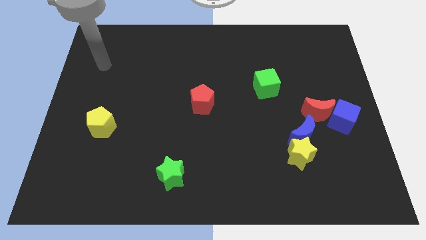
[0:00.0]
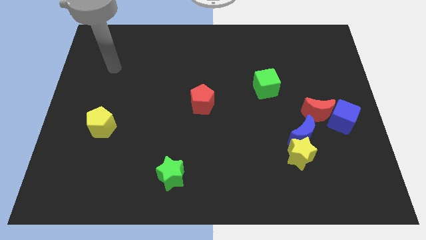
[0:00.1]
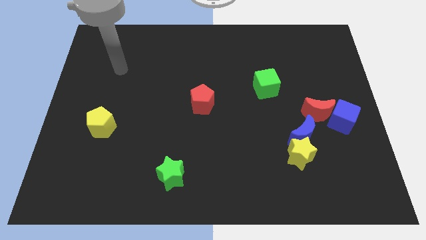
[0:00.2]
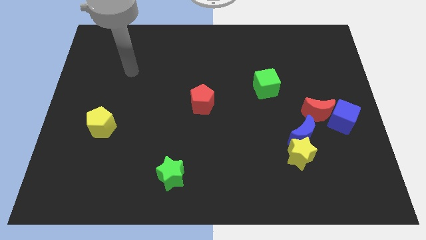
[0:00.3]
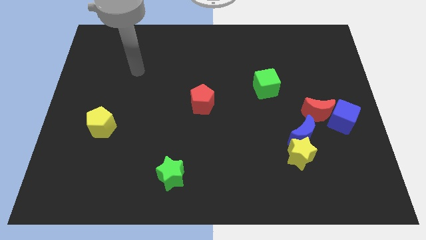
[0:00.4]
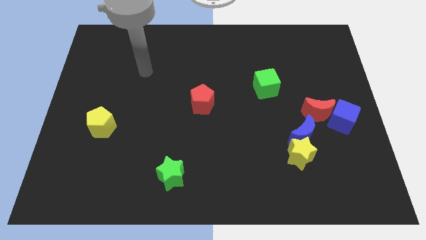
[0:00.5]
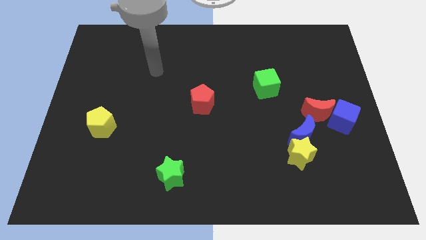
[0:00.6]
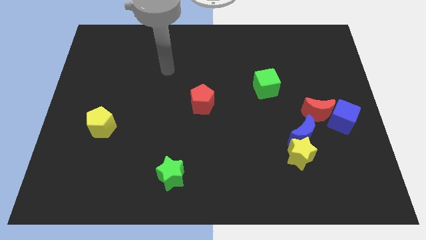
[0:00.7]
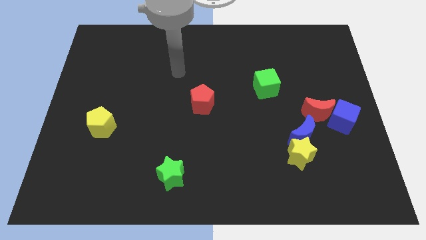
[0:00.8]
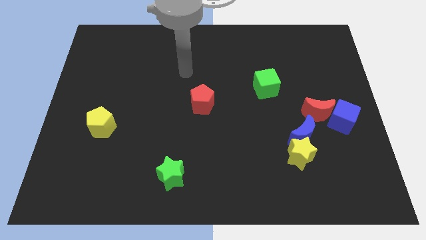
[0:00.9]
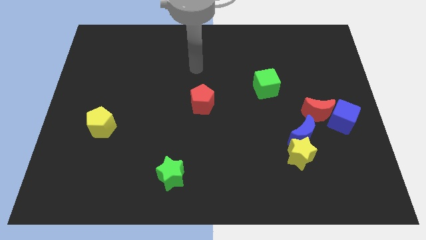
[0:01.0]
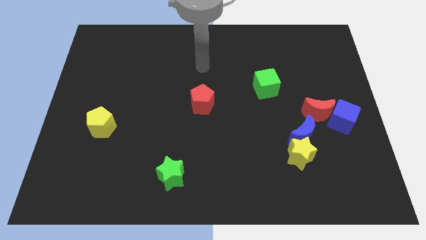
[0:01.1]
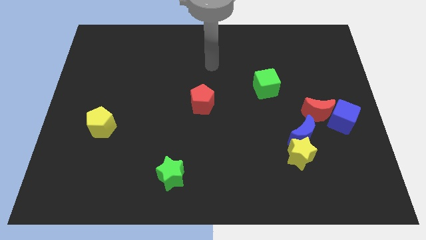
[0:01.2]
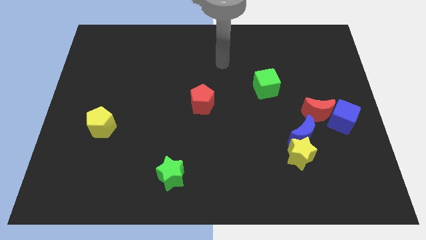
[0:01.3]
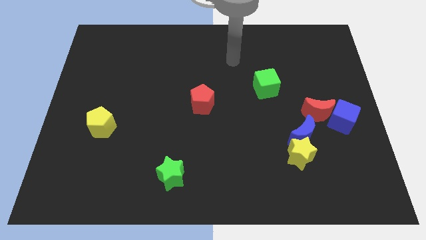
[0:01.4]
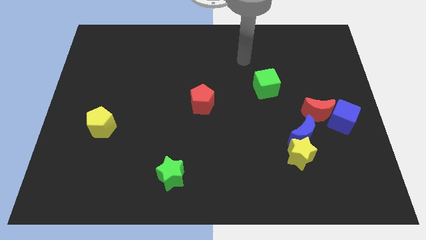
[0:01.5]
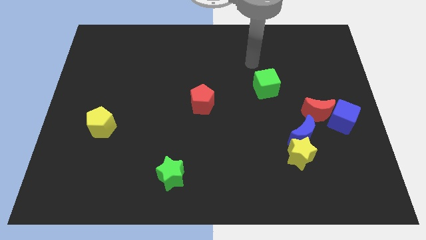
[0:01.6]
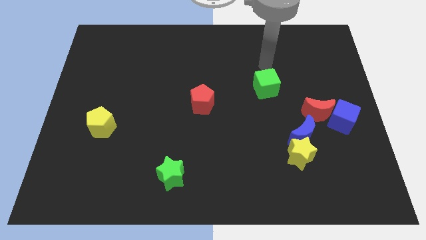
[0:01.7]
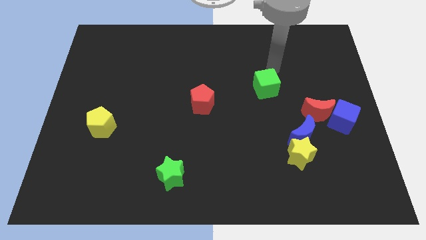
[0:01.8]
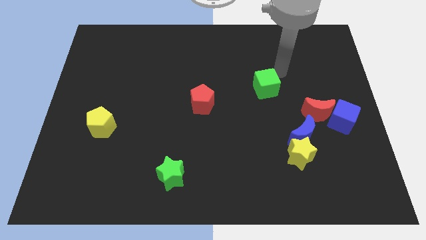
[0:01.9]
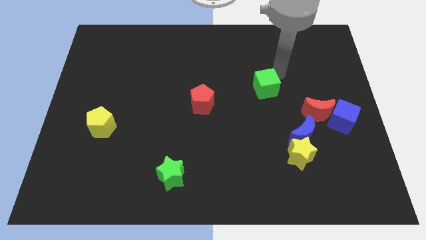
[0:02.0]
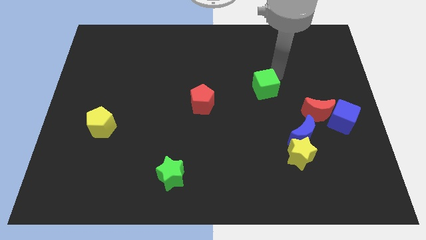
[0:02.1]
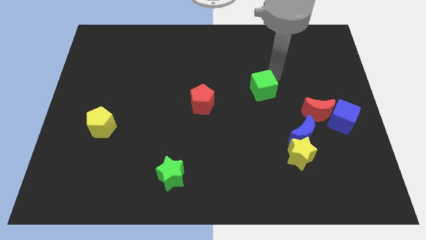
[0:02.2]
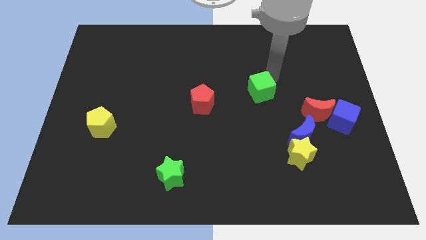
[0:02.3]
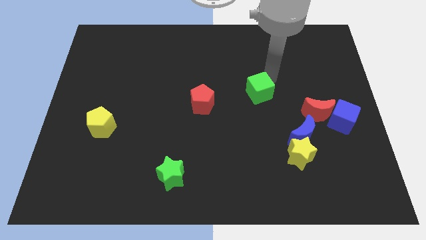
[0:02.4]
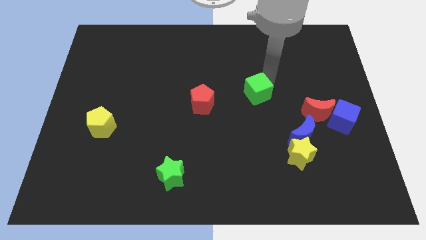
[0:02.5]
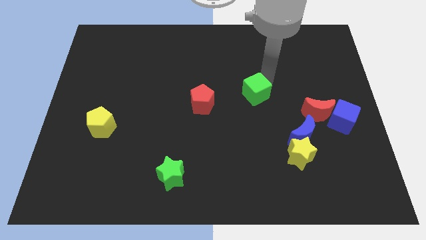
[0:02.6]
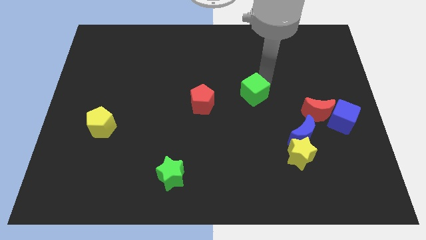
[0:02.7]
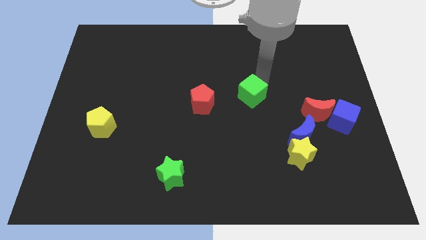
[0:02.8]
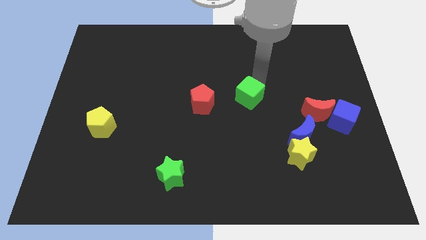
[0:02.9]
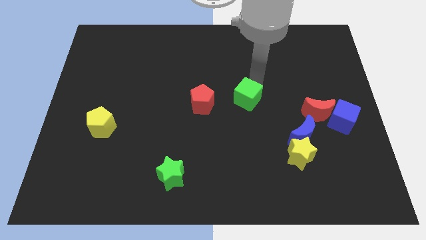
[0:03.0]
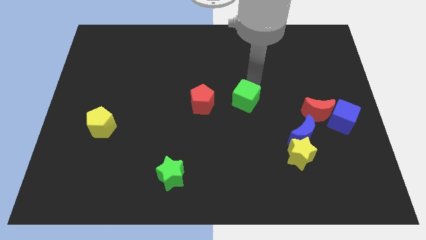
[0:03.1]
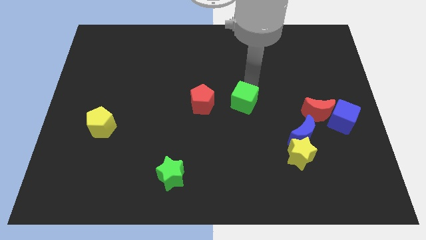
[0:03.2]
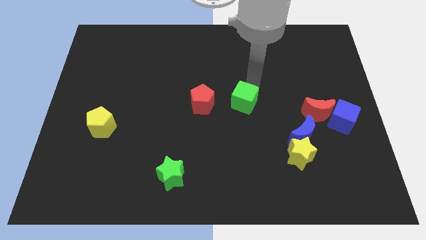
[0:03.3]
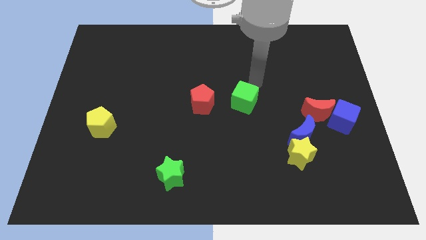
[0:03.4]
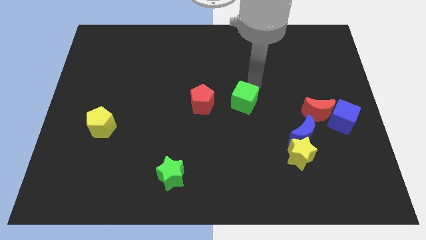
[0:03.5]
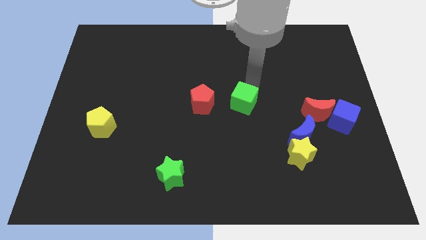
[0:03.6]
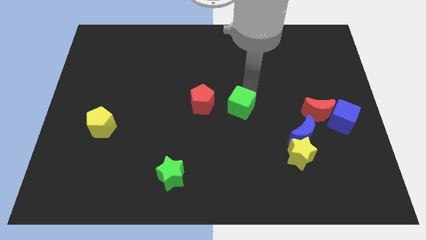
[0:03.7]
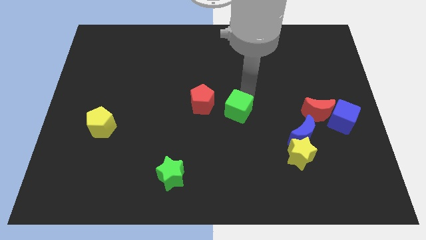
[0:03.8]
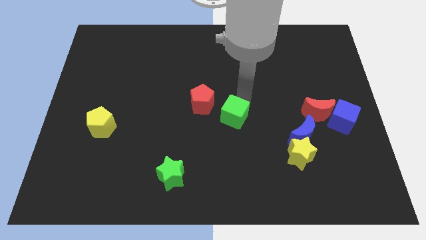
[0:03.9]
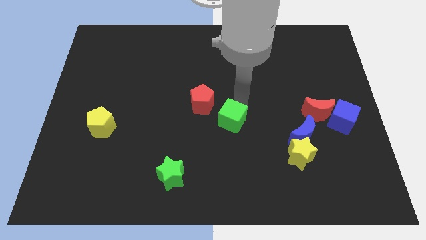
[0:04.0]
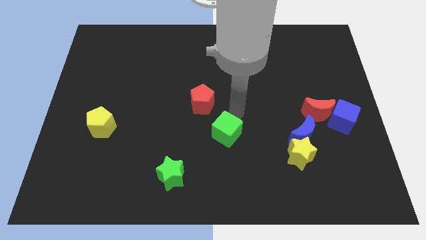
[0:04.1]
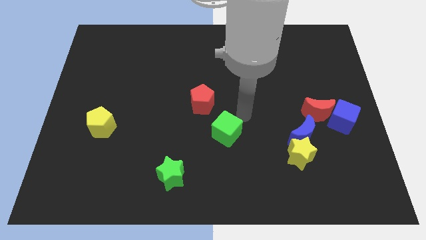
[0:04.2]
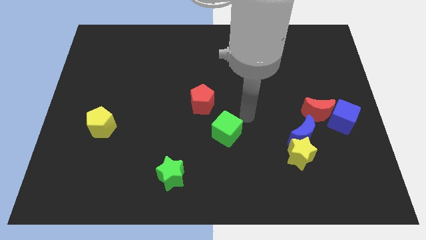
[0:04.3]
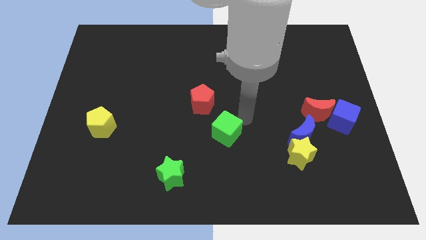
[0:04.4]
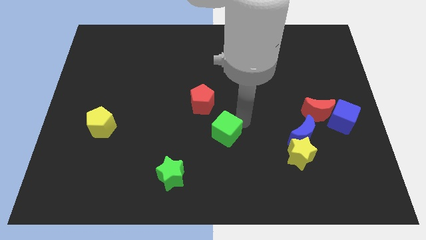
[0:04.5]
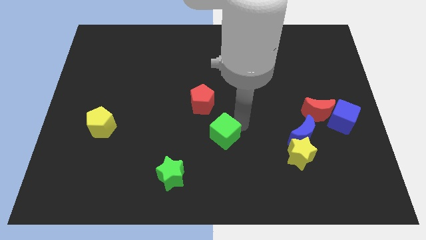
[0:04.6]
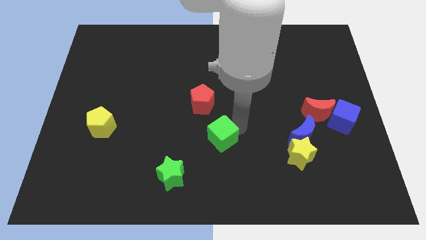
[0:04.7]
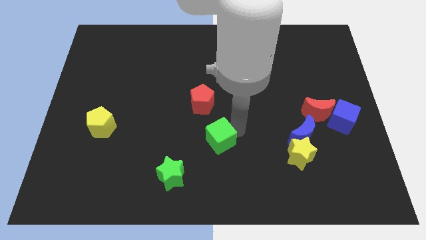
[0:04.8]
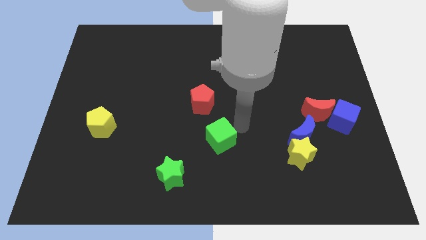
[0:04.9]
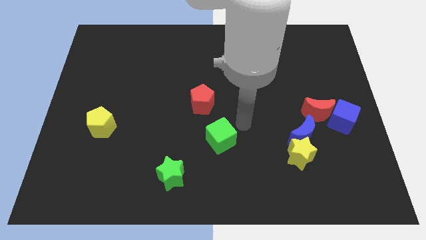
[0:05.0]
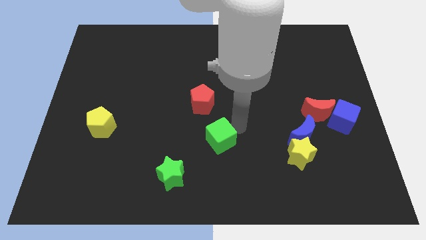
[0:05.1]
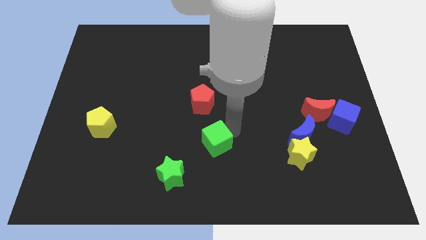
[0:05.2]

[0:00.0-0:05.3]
put the green cube to the top right side of the green star

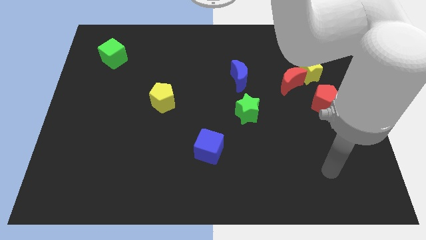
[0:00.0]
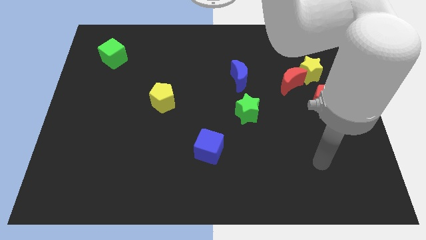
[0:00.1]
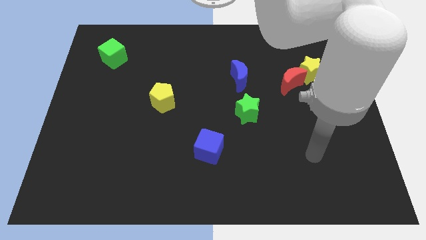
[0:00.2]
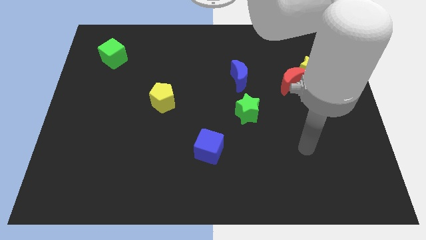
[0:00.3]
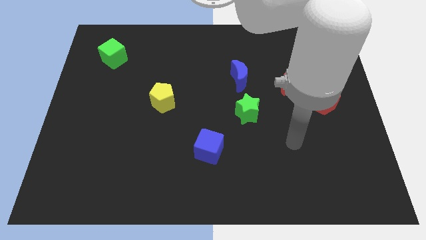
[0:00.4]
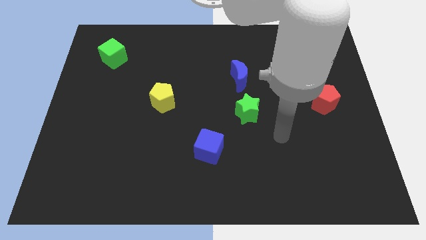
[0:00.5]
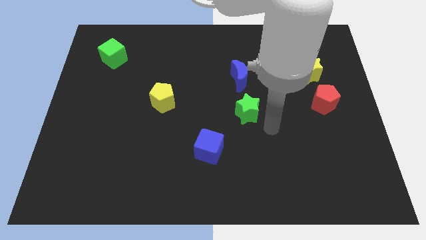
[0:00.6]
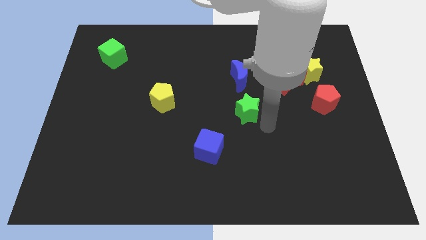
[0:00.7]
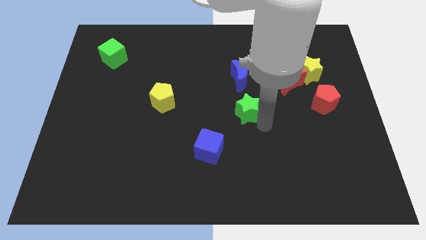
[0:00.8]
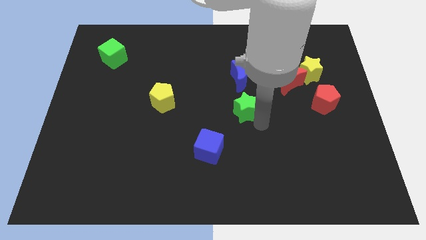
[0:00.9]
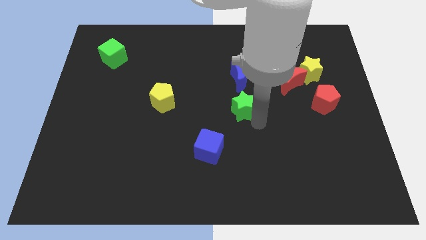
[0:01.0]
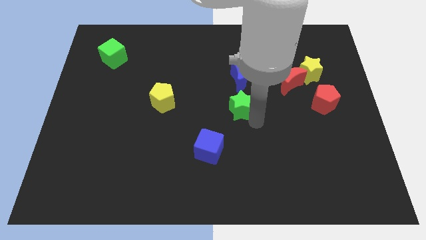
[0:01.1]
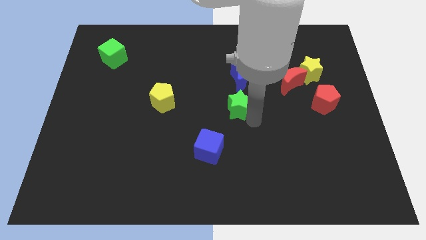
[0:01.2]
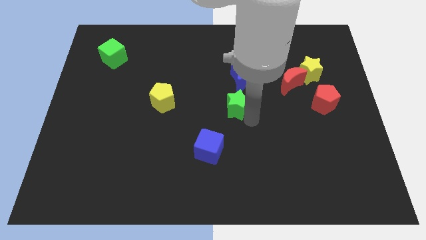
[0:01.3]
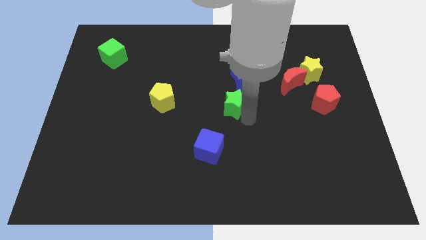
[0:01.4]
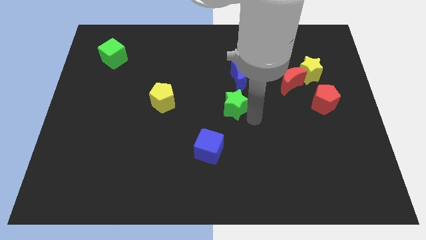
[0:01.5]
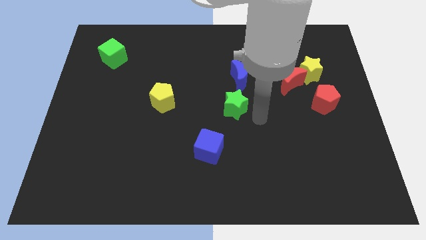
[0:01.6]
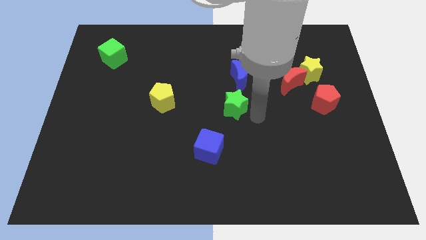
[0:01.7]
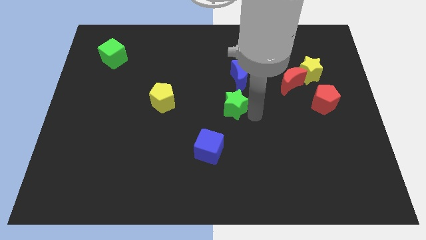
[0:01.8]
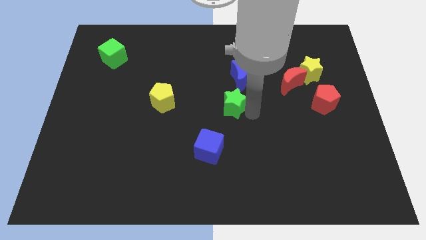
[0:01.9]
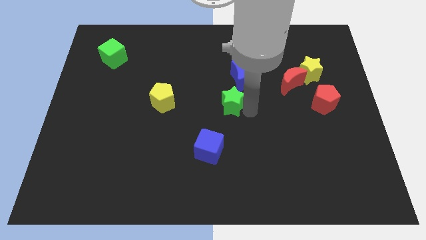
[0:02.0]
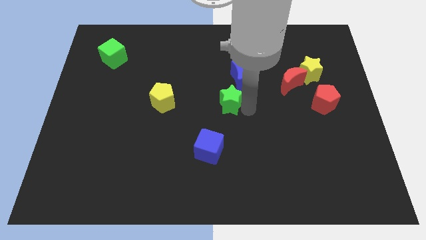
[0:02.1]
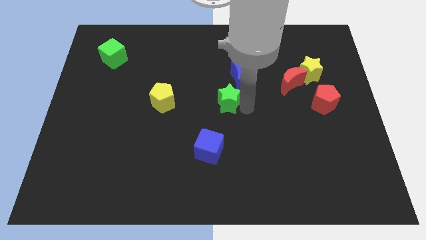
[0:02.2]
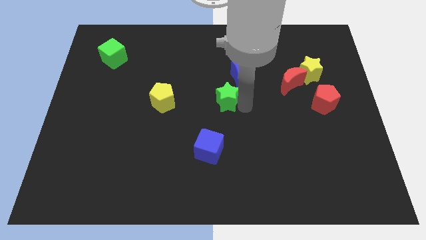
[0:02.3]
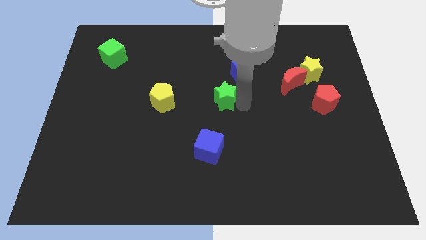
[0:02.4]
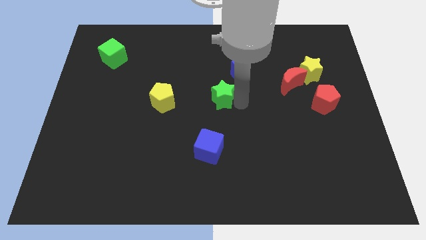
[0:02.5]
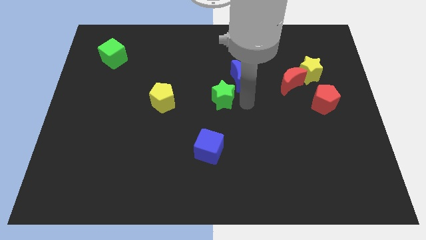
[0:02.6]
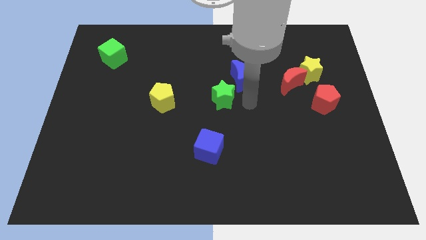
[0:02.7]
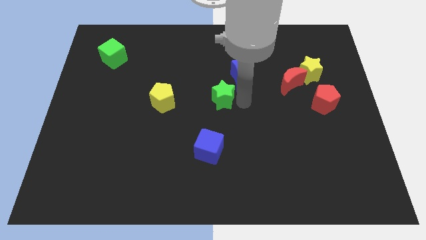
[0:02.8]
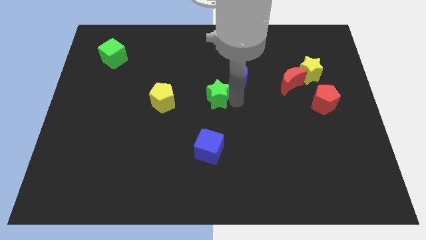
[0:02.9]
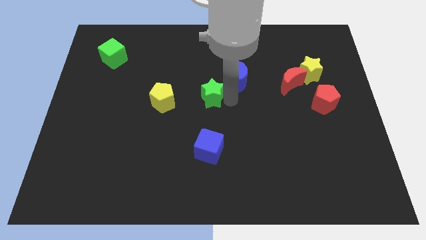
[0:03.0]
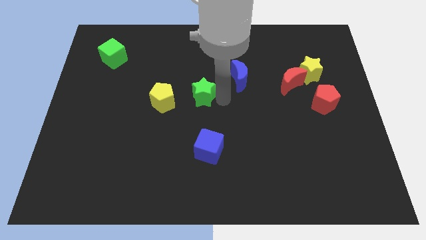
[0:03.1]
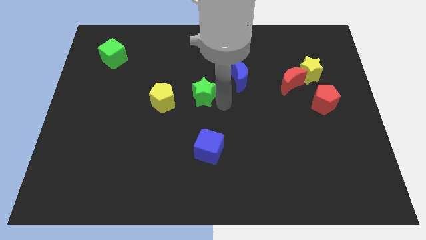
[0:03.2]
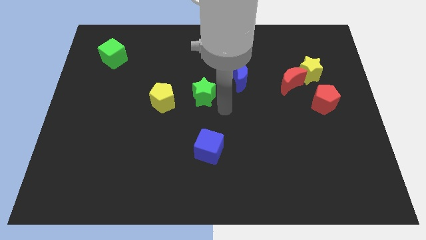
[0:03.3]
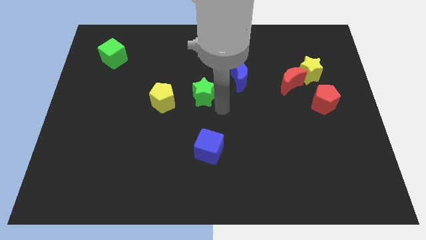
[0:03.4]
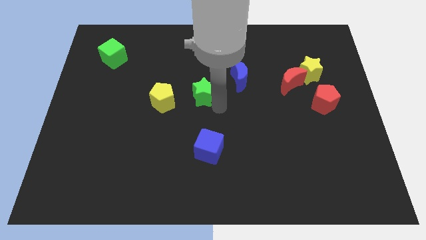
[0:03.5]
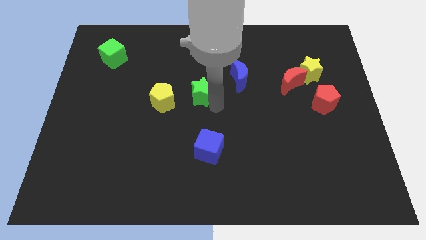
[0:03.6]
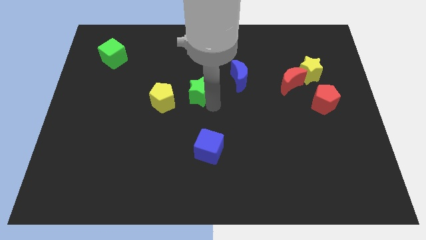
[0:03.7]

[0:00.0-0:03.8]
slide the green star to the top right of the yellow pentagon
